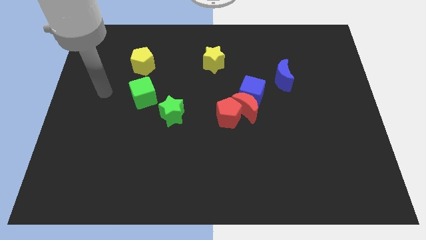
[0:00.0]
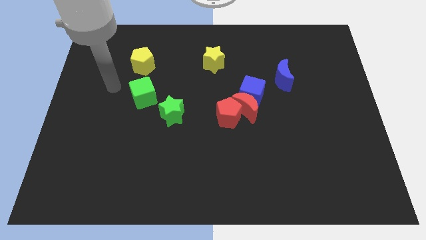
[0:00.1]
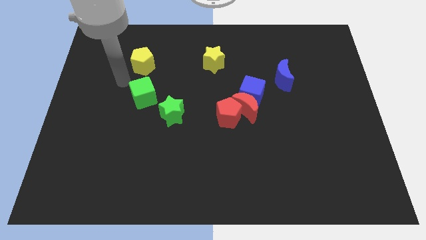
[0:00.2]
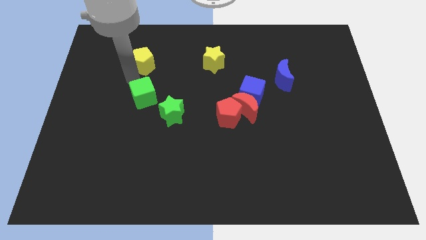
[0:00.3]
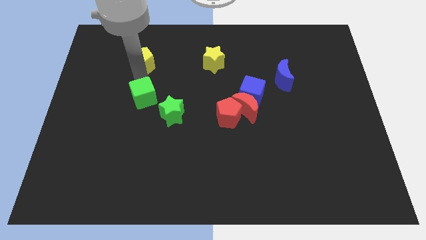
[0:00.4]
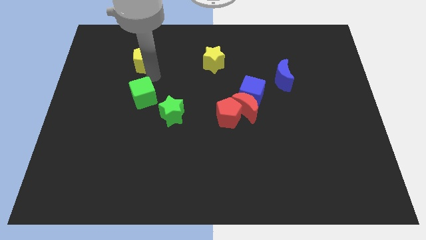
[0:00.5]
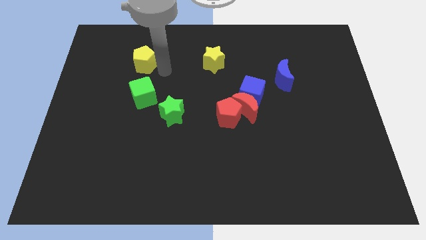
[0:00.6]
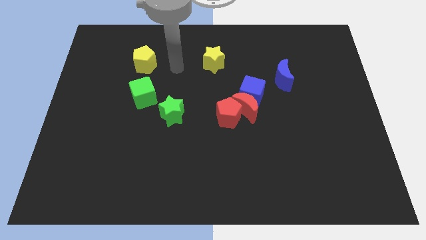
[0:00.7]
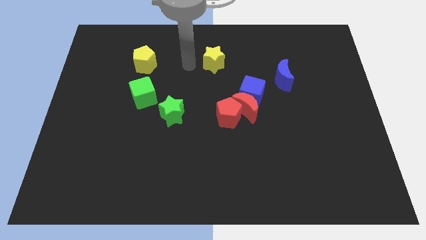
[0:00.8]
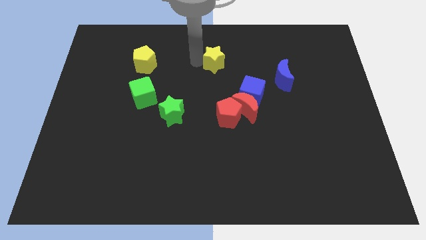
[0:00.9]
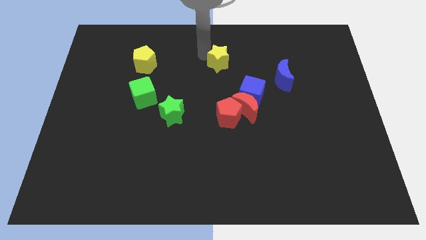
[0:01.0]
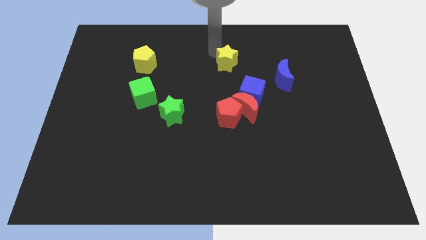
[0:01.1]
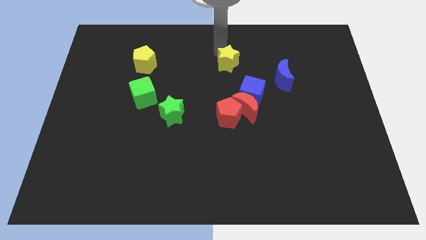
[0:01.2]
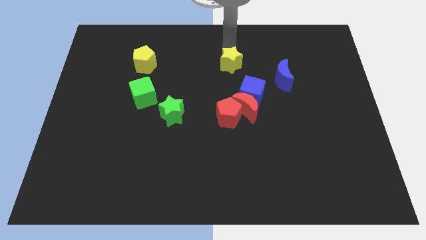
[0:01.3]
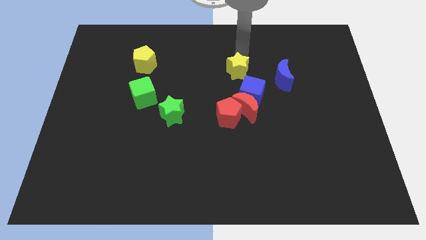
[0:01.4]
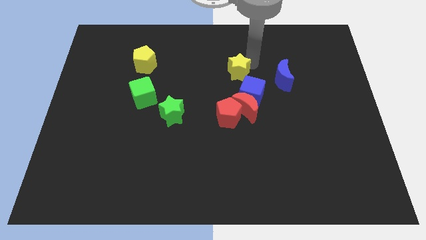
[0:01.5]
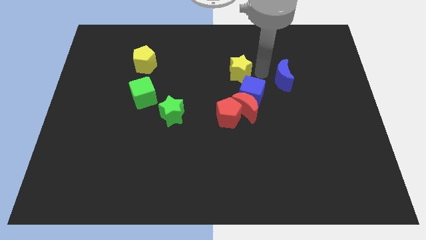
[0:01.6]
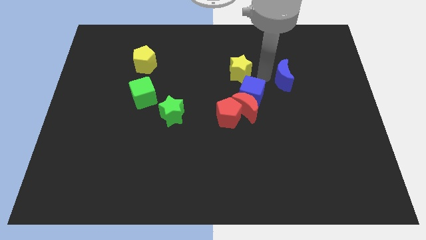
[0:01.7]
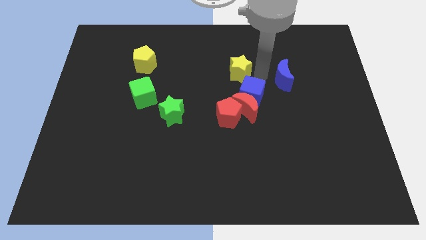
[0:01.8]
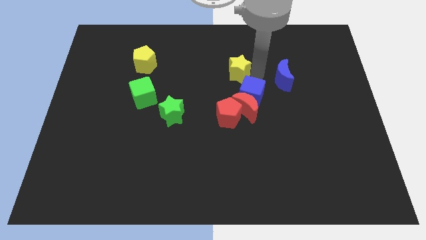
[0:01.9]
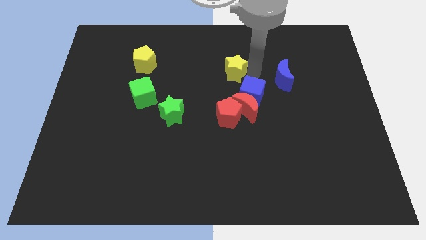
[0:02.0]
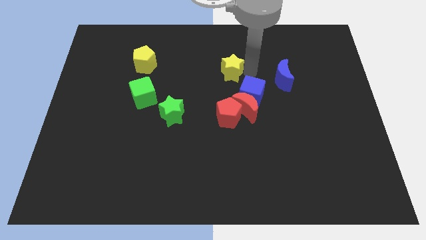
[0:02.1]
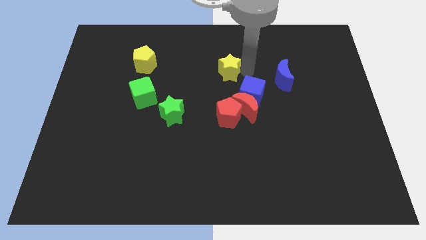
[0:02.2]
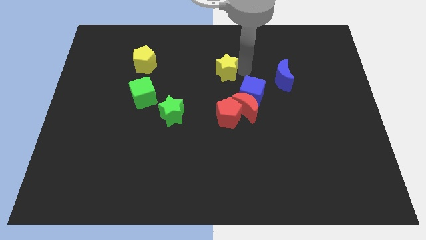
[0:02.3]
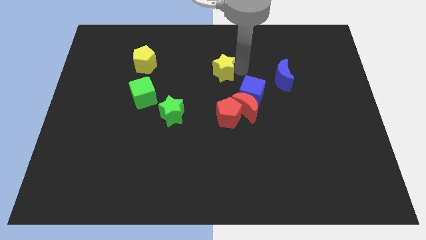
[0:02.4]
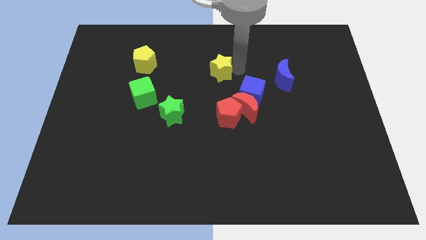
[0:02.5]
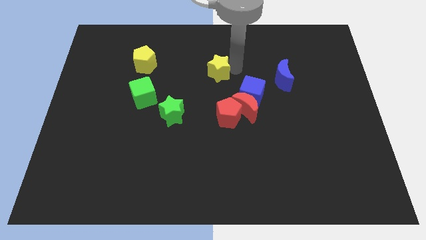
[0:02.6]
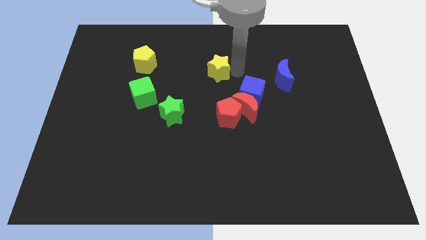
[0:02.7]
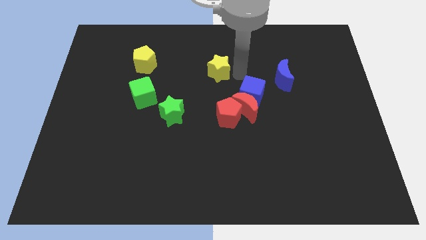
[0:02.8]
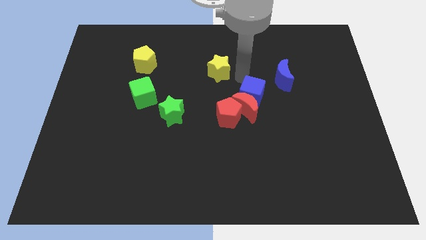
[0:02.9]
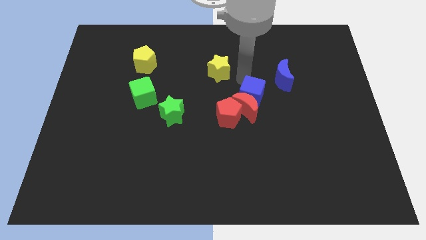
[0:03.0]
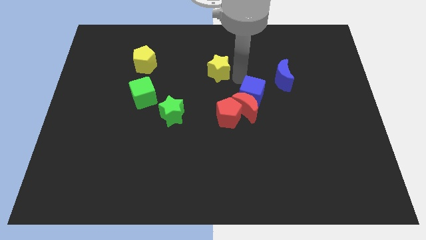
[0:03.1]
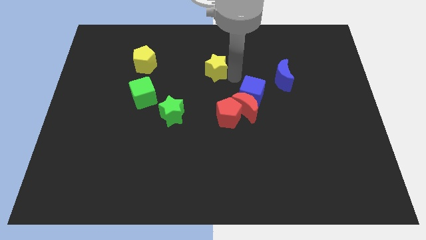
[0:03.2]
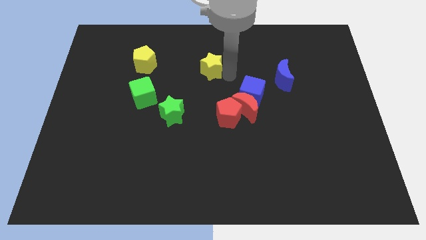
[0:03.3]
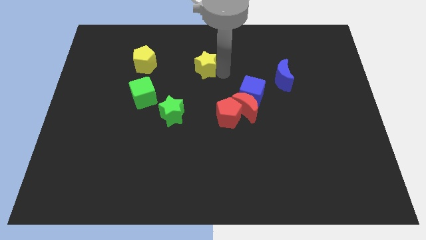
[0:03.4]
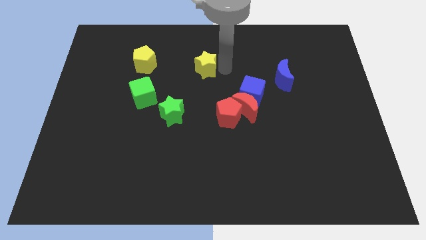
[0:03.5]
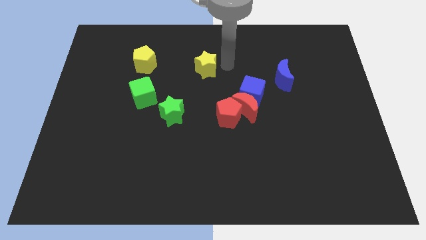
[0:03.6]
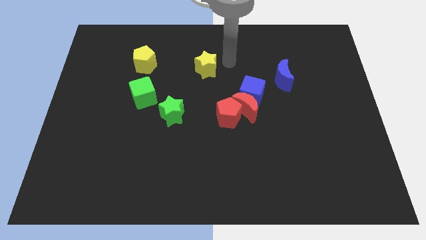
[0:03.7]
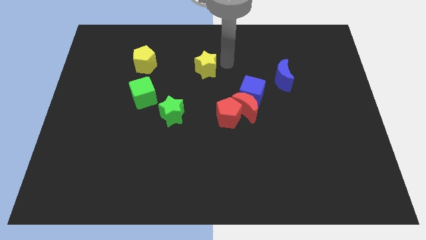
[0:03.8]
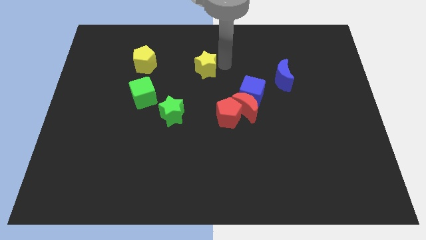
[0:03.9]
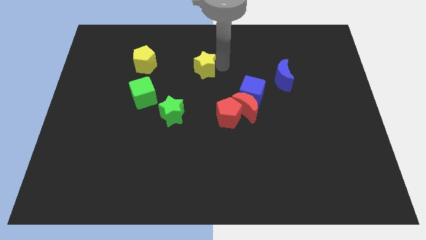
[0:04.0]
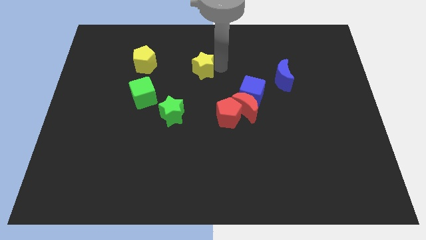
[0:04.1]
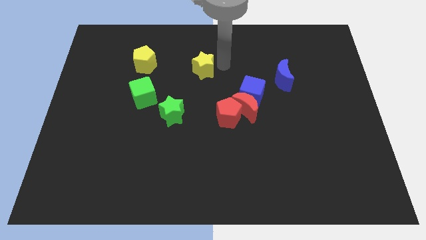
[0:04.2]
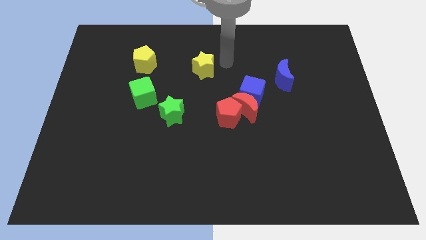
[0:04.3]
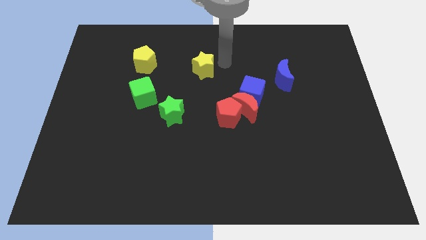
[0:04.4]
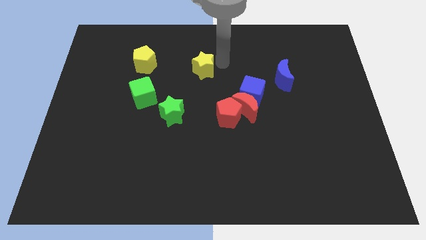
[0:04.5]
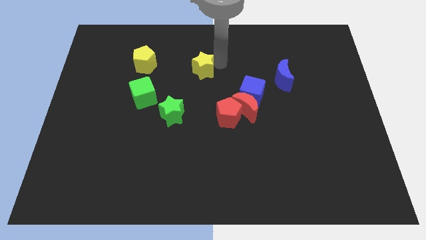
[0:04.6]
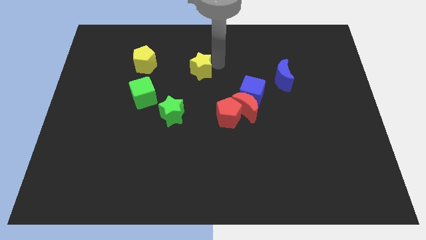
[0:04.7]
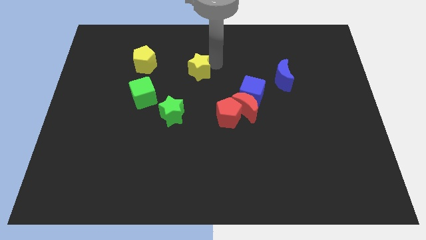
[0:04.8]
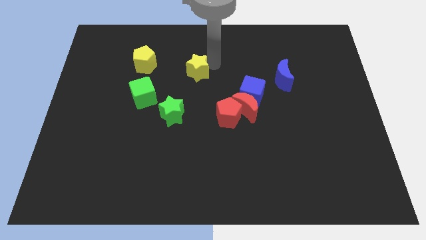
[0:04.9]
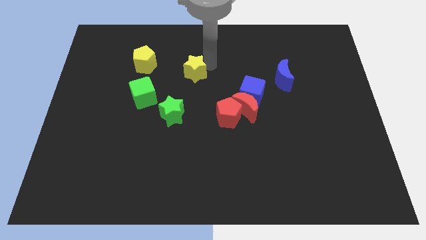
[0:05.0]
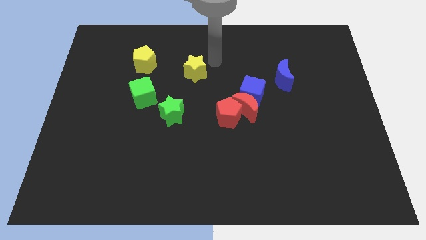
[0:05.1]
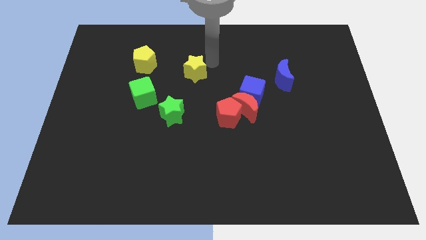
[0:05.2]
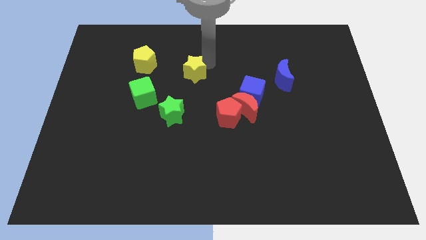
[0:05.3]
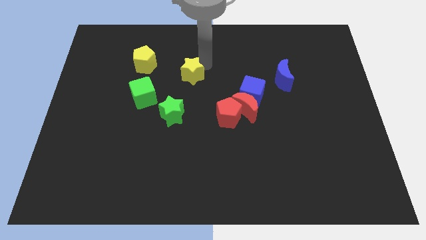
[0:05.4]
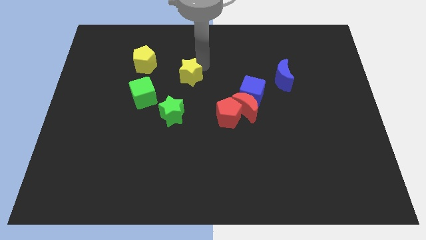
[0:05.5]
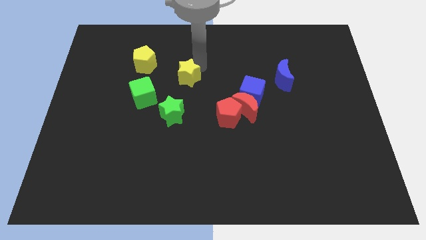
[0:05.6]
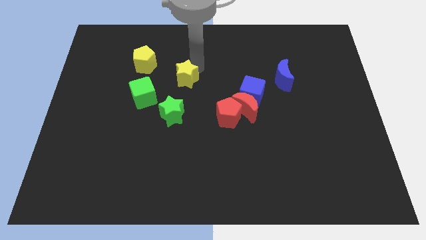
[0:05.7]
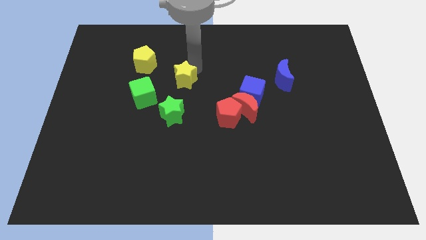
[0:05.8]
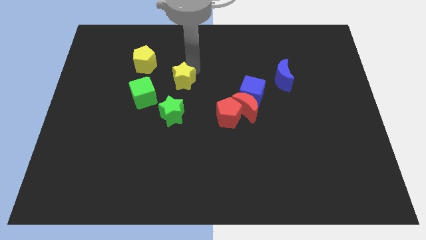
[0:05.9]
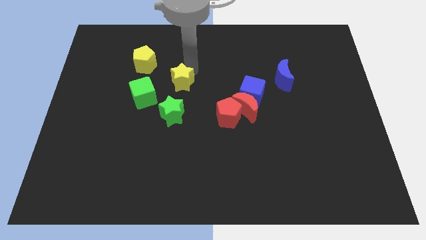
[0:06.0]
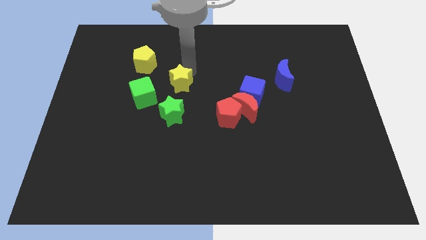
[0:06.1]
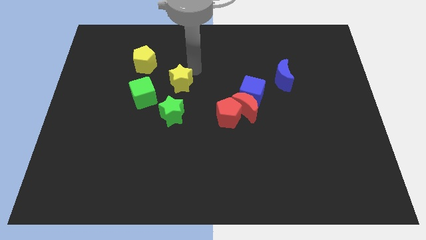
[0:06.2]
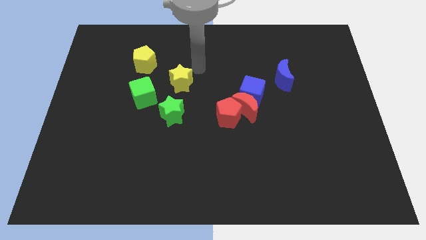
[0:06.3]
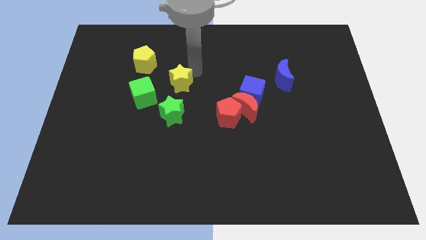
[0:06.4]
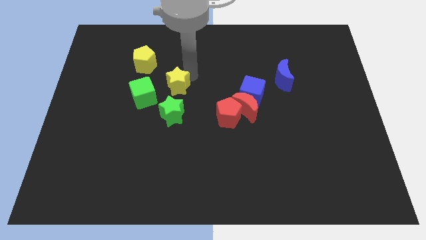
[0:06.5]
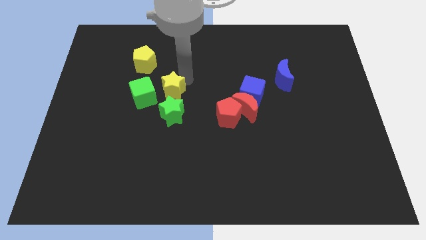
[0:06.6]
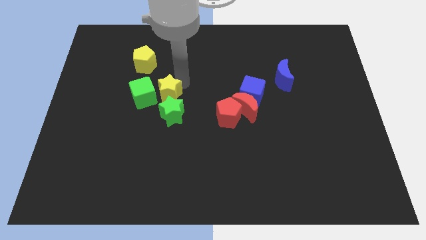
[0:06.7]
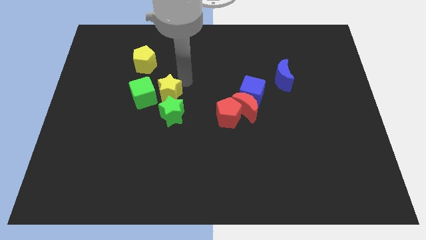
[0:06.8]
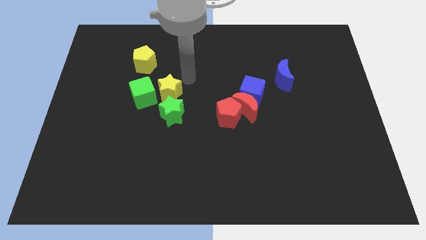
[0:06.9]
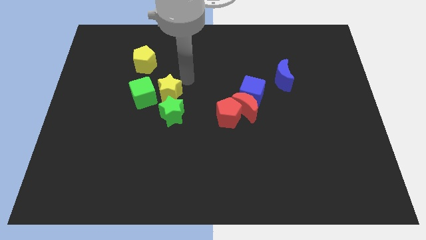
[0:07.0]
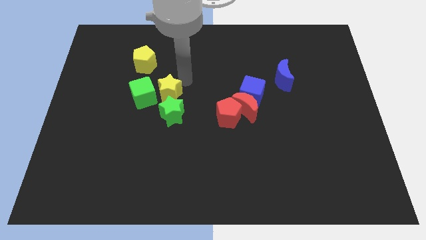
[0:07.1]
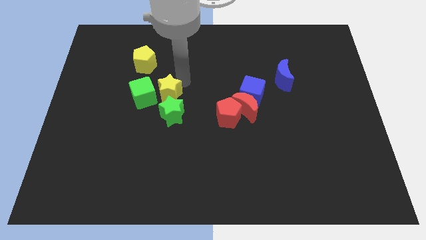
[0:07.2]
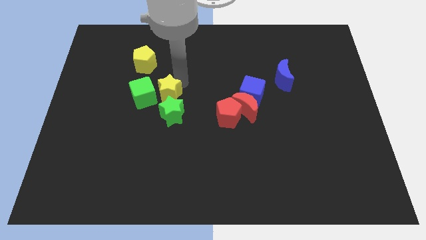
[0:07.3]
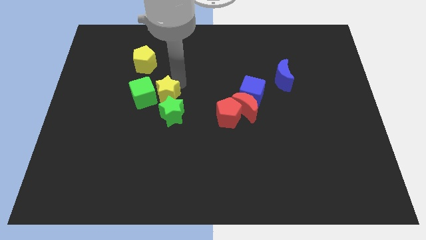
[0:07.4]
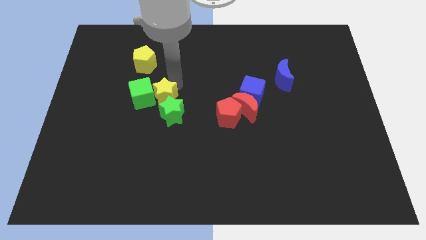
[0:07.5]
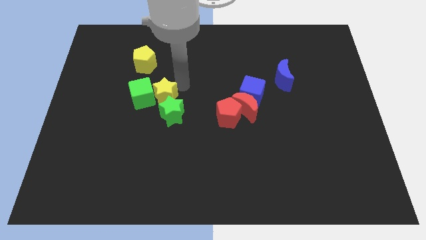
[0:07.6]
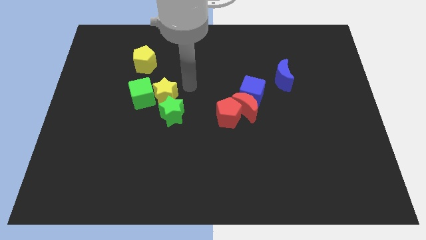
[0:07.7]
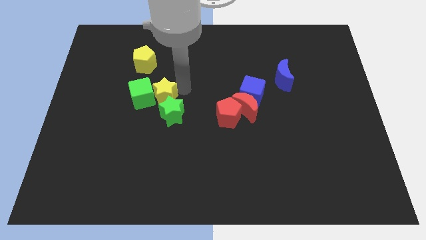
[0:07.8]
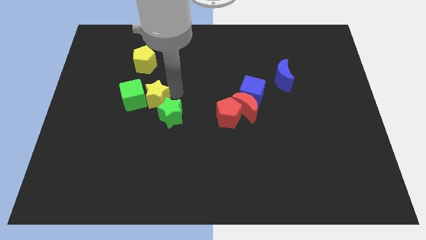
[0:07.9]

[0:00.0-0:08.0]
slide the yellow star to the bottom of the yellow pentagon
